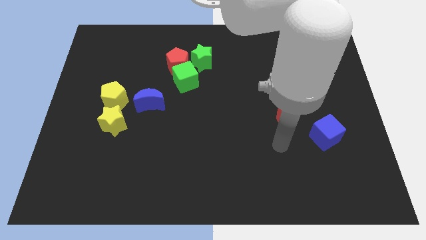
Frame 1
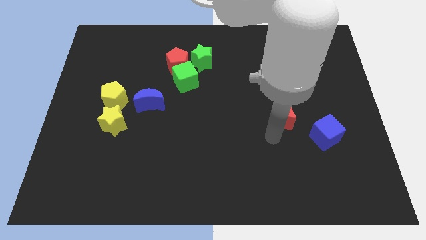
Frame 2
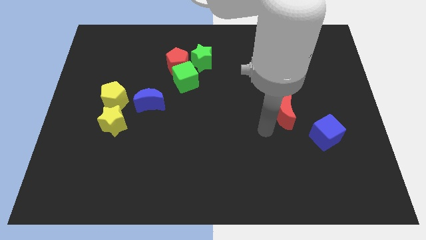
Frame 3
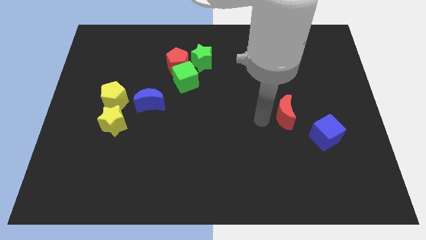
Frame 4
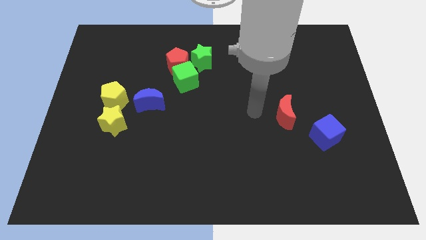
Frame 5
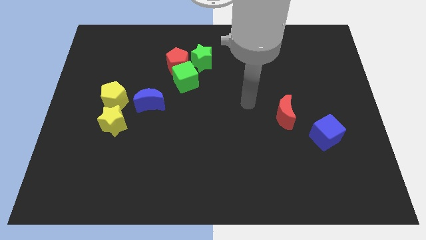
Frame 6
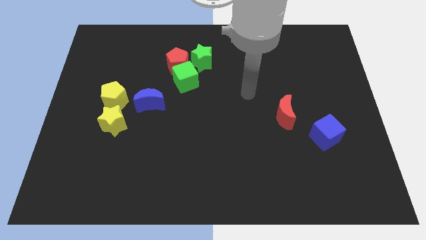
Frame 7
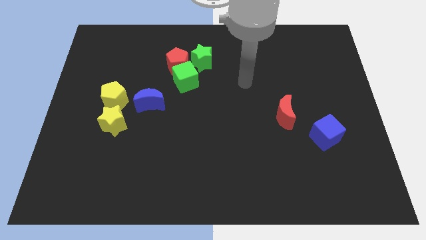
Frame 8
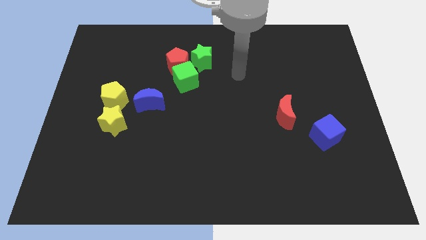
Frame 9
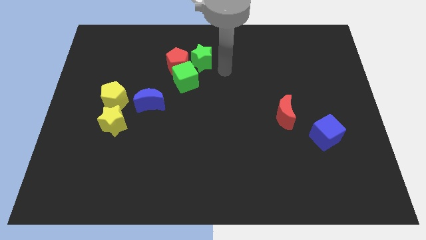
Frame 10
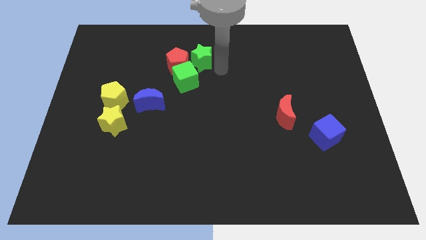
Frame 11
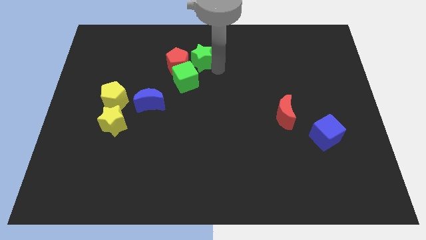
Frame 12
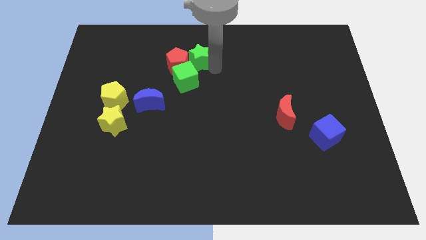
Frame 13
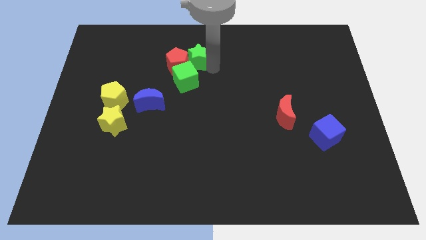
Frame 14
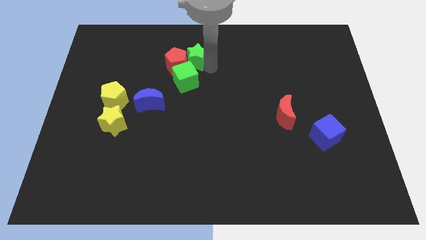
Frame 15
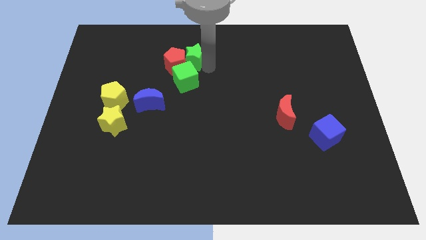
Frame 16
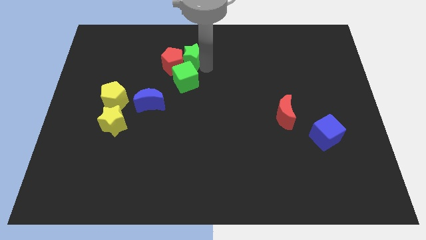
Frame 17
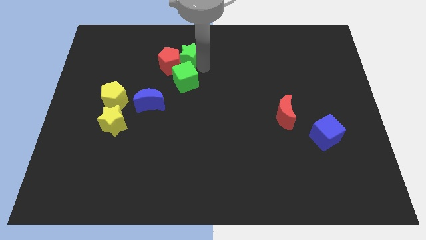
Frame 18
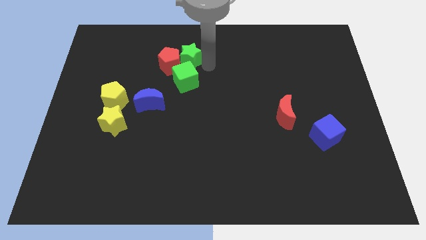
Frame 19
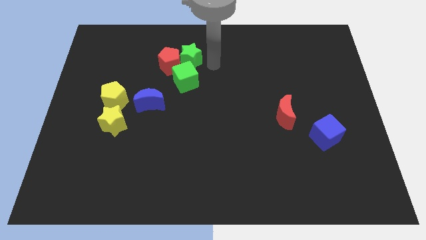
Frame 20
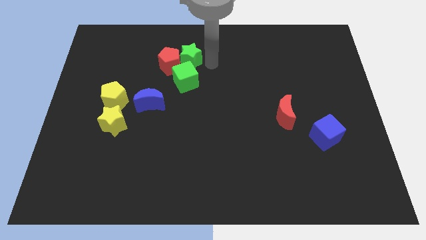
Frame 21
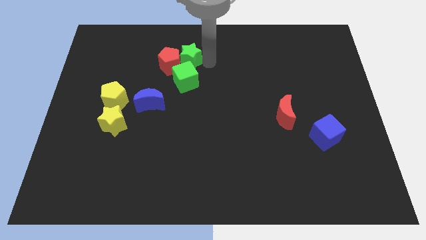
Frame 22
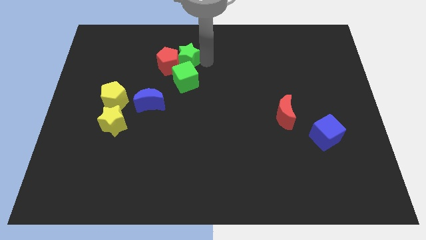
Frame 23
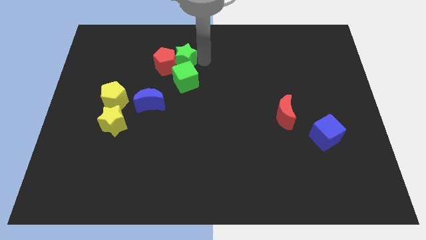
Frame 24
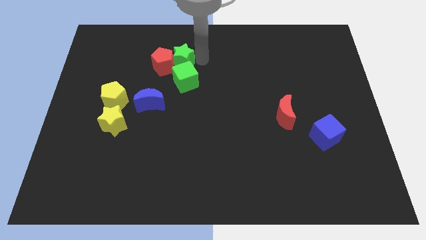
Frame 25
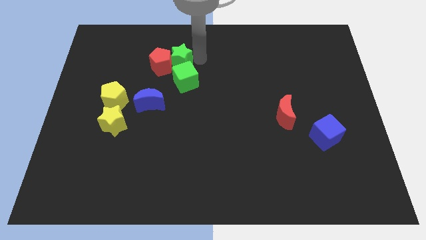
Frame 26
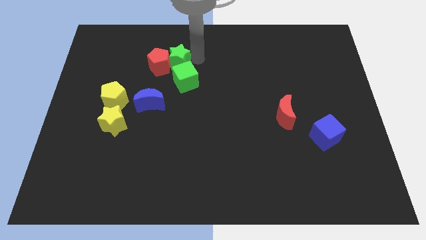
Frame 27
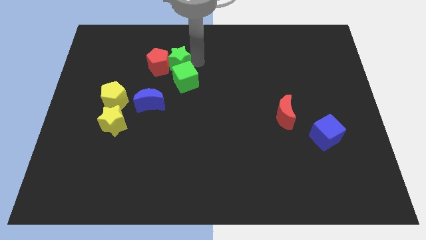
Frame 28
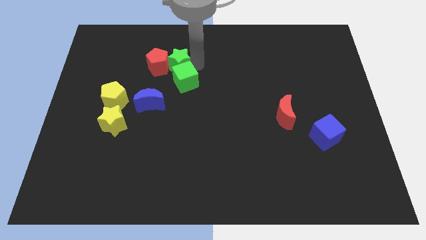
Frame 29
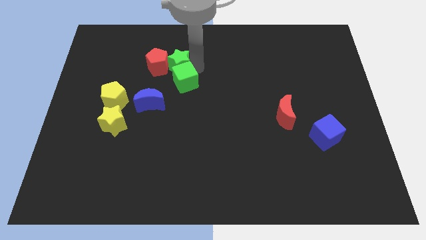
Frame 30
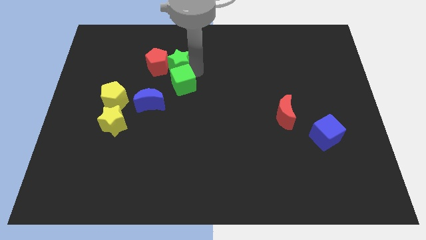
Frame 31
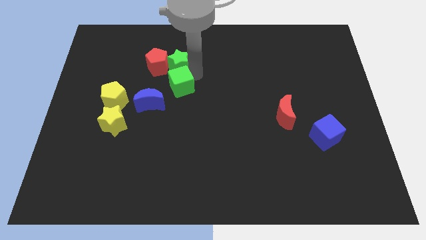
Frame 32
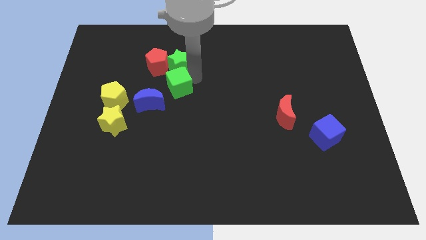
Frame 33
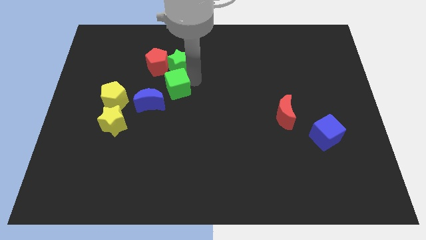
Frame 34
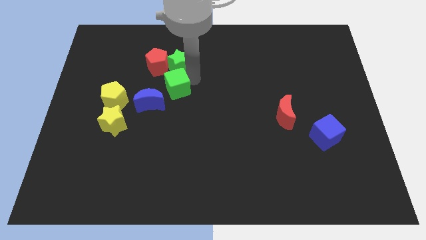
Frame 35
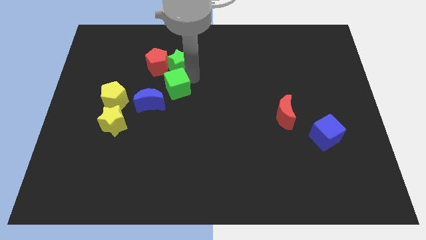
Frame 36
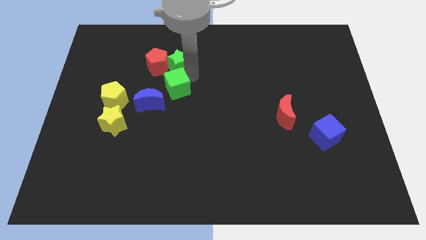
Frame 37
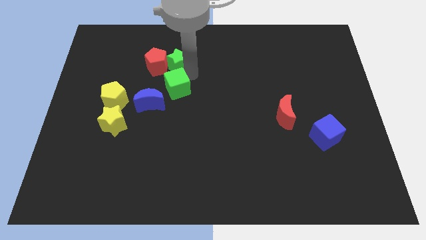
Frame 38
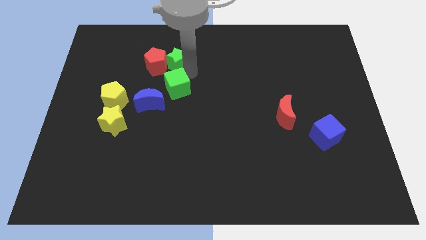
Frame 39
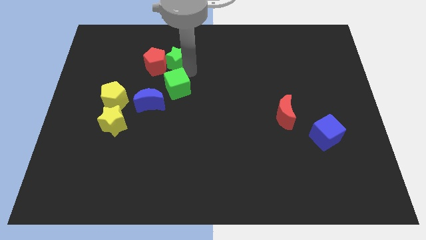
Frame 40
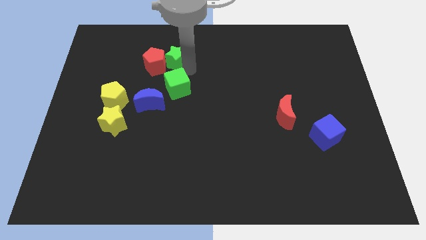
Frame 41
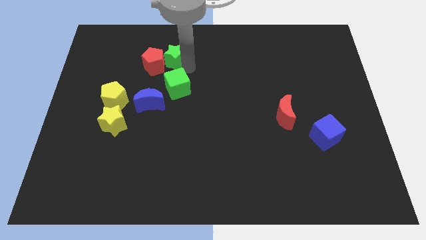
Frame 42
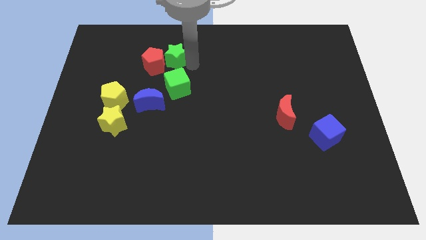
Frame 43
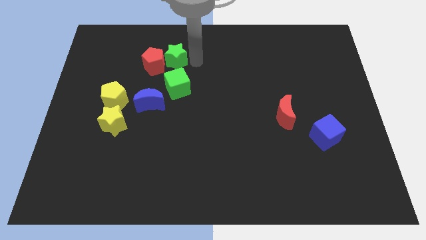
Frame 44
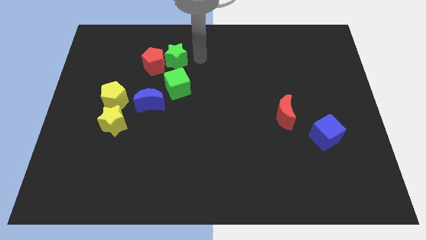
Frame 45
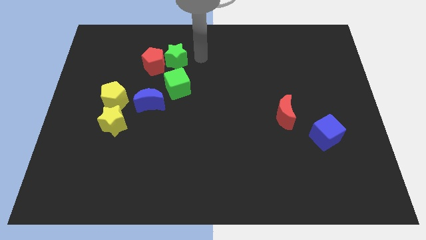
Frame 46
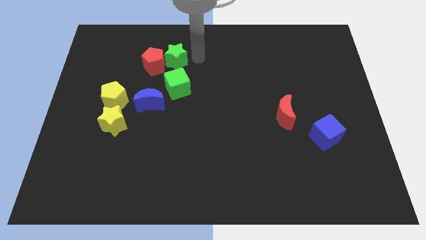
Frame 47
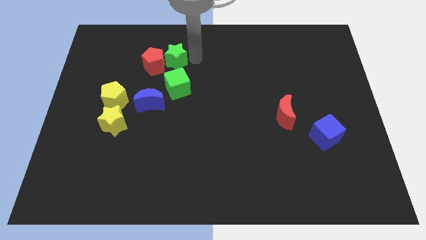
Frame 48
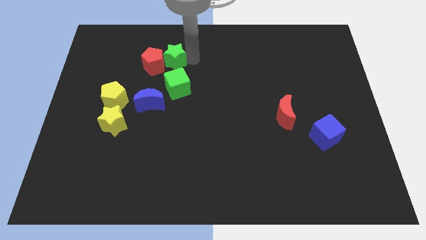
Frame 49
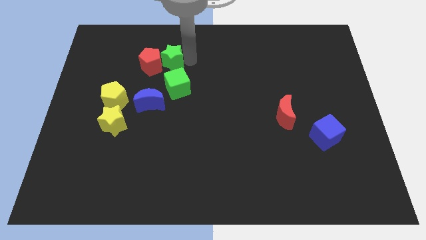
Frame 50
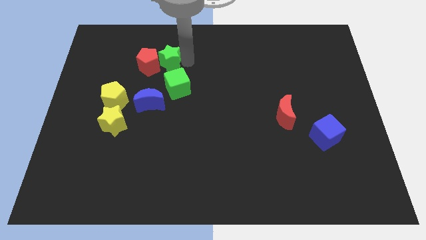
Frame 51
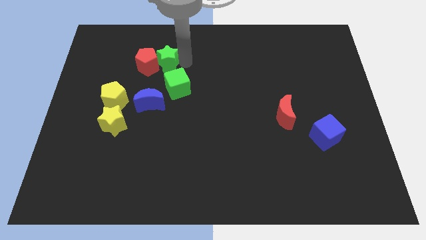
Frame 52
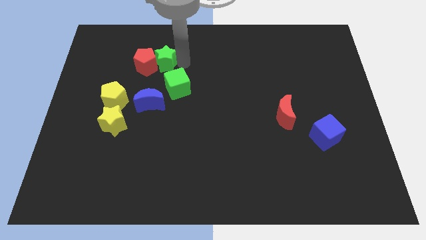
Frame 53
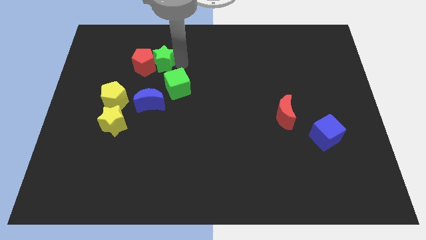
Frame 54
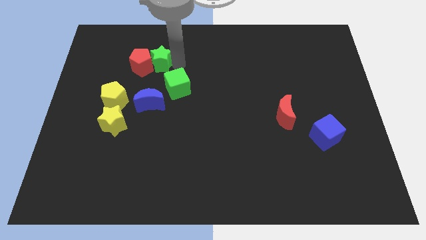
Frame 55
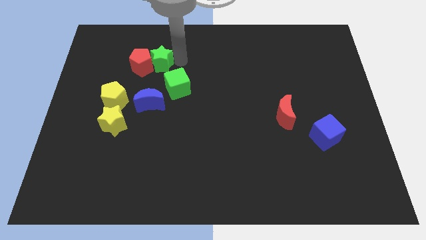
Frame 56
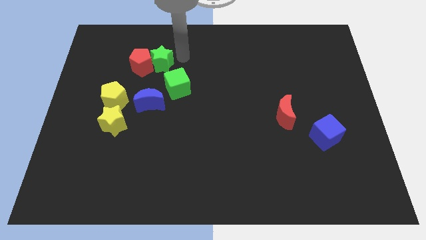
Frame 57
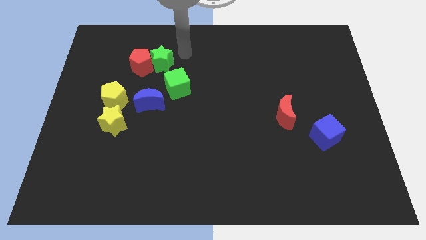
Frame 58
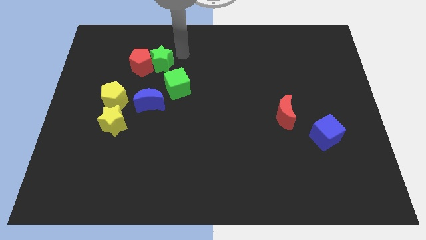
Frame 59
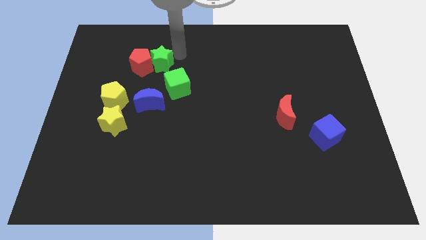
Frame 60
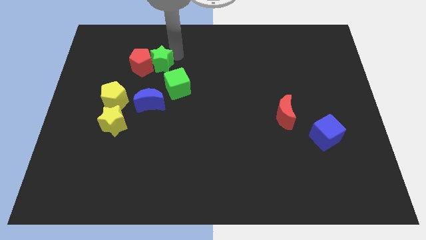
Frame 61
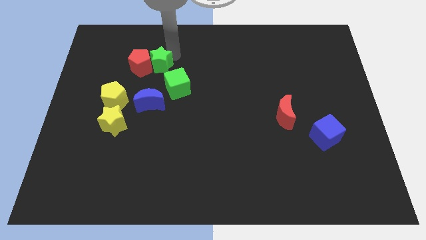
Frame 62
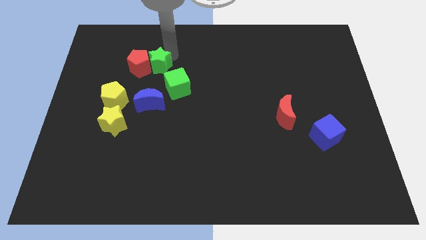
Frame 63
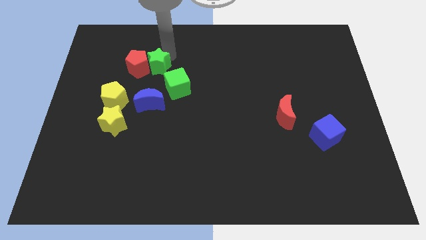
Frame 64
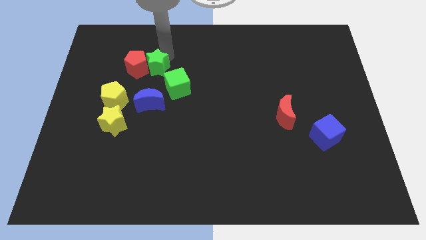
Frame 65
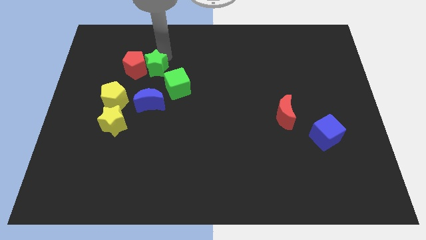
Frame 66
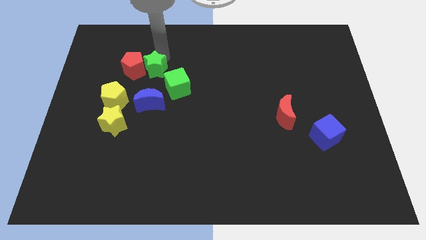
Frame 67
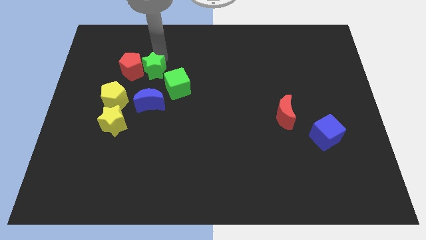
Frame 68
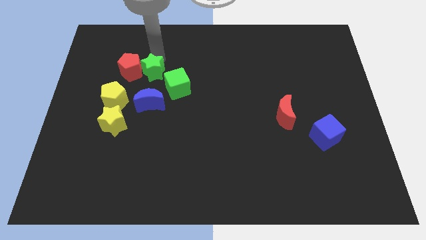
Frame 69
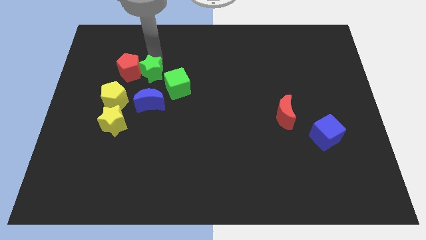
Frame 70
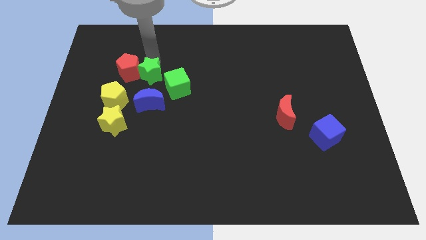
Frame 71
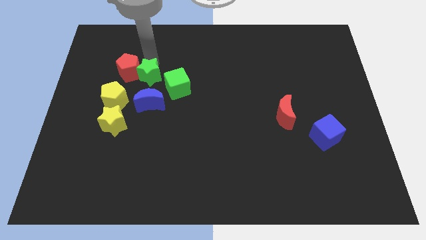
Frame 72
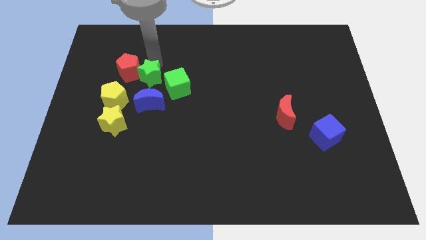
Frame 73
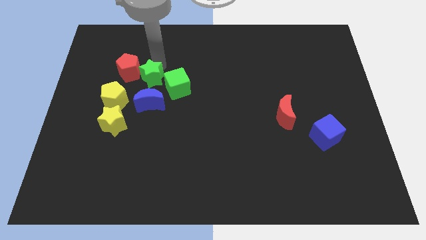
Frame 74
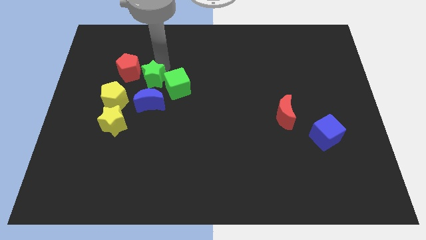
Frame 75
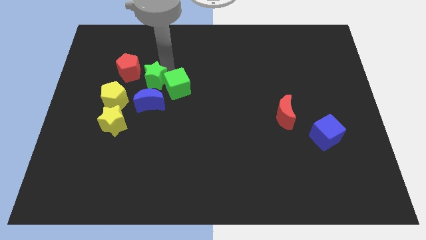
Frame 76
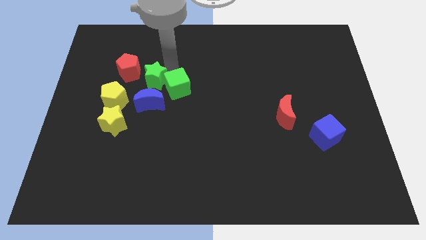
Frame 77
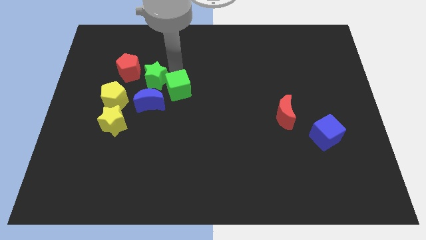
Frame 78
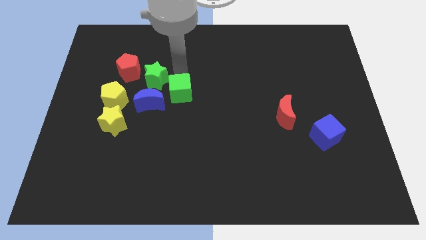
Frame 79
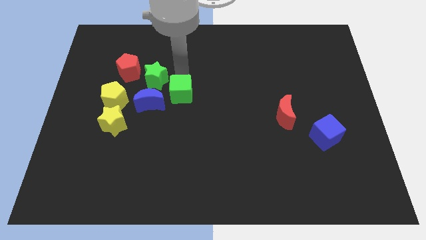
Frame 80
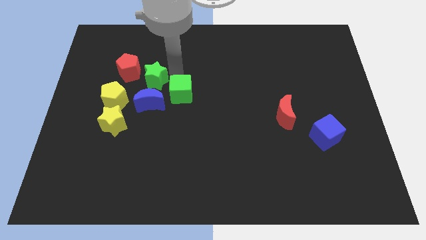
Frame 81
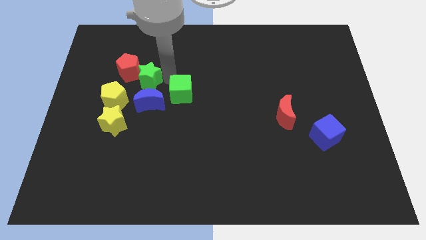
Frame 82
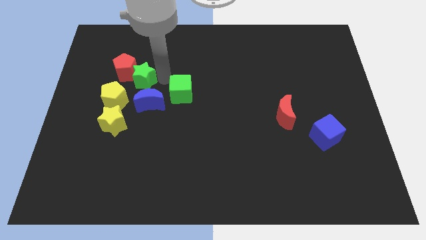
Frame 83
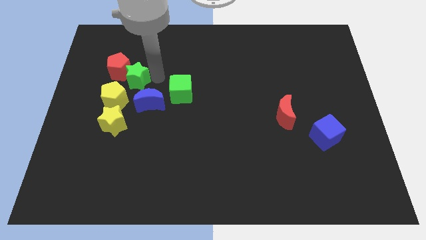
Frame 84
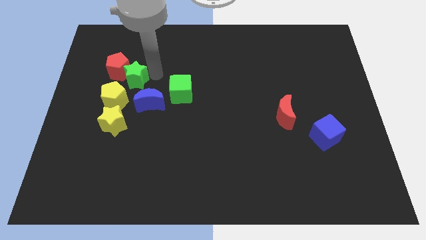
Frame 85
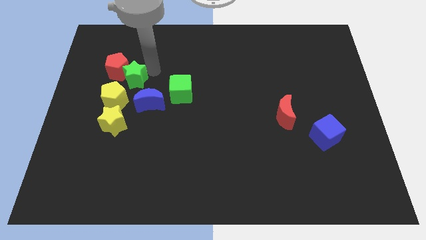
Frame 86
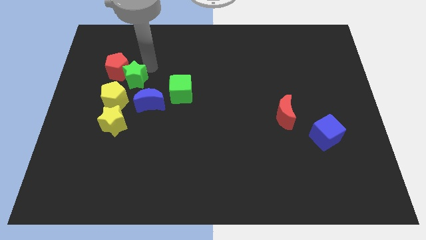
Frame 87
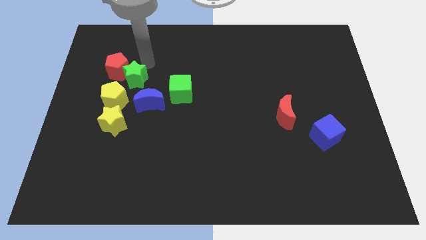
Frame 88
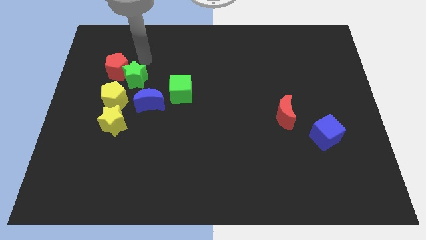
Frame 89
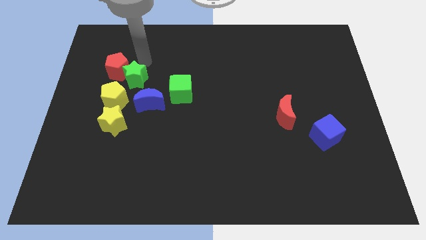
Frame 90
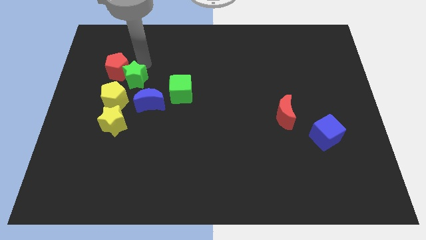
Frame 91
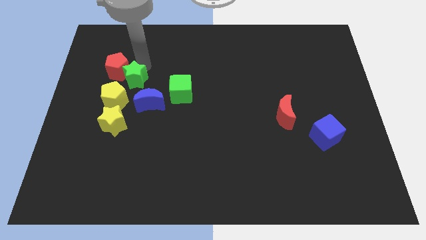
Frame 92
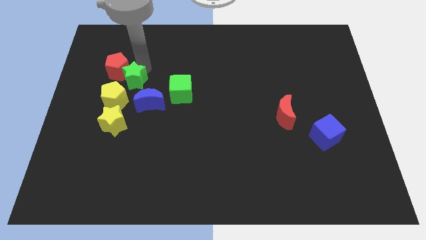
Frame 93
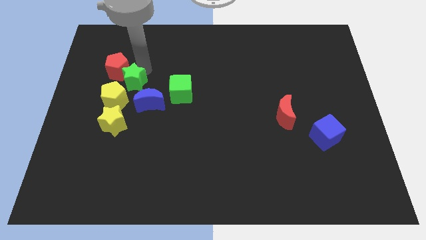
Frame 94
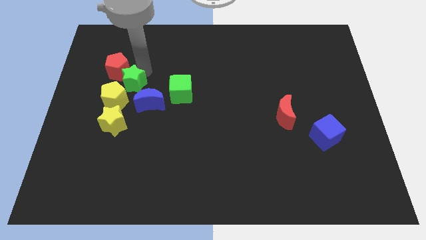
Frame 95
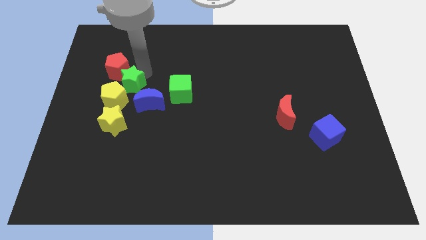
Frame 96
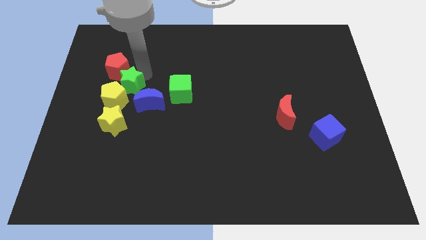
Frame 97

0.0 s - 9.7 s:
slide the green star next to the yellow pentagon
